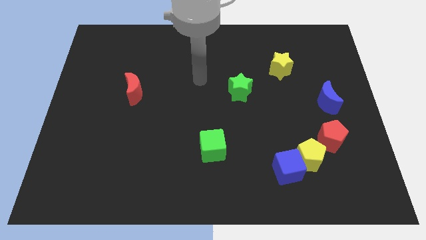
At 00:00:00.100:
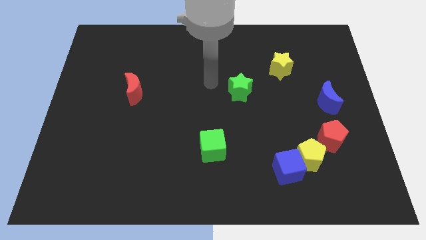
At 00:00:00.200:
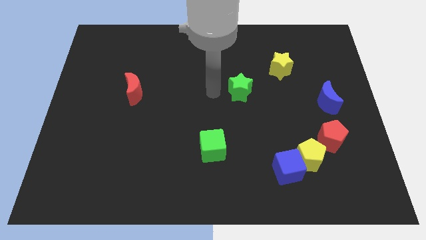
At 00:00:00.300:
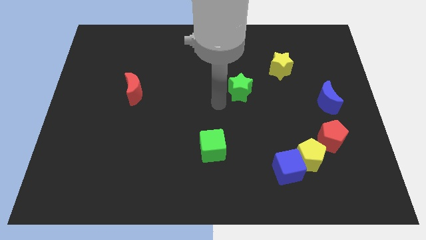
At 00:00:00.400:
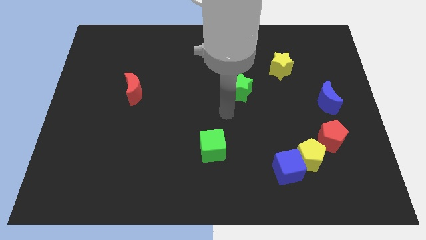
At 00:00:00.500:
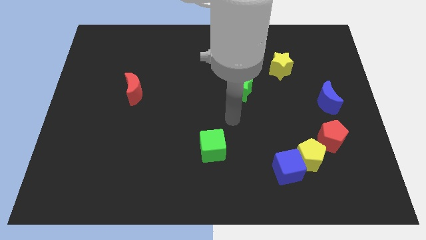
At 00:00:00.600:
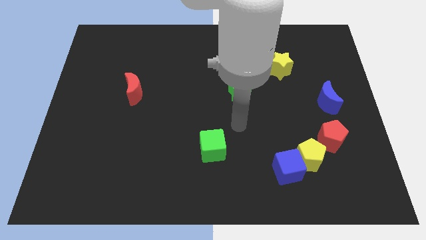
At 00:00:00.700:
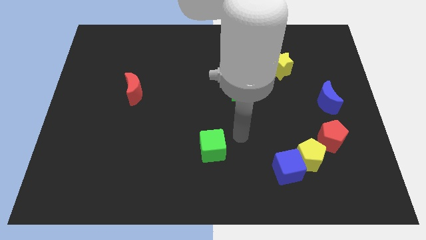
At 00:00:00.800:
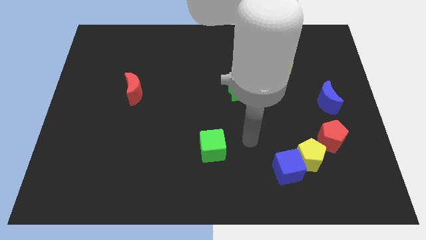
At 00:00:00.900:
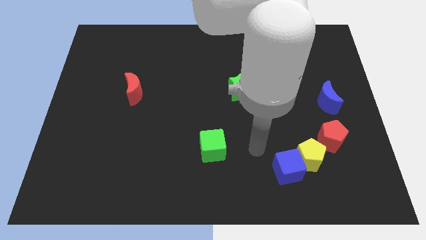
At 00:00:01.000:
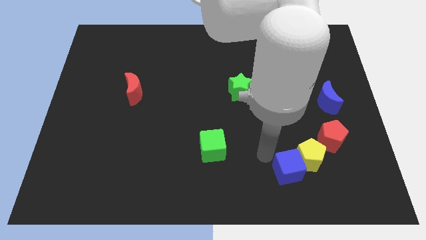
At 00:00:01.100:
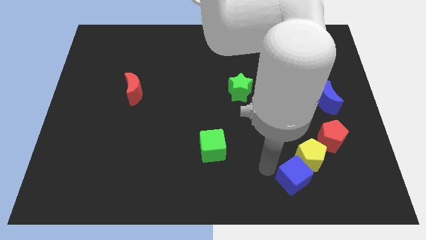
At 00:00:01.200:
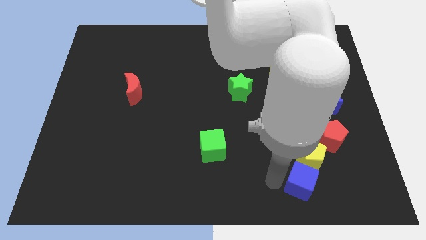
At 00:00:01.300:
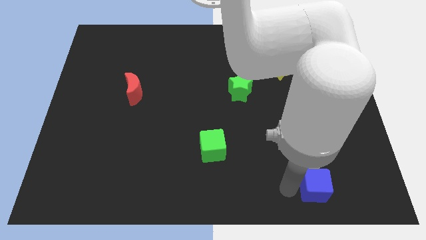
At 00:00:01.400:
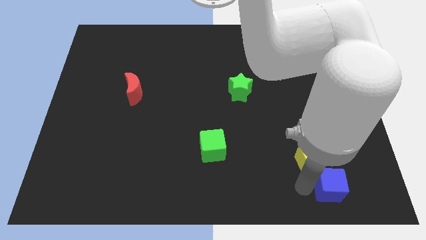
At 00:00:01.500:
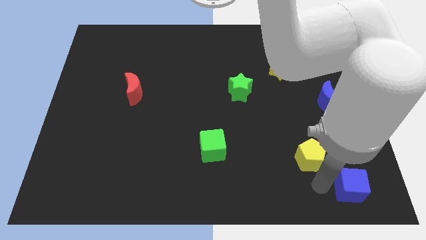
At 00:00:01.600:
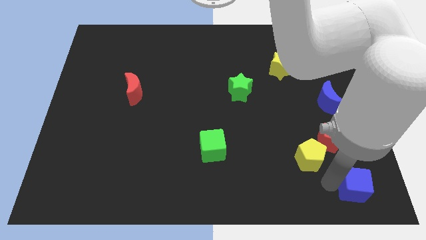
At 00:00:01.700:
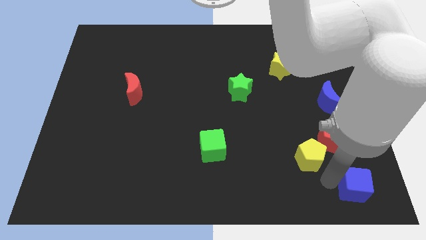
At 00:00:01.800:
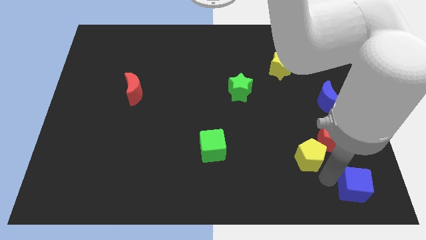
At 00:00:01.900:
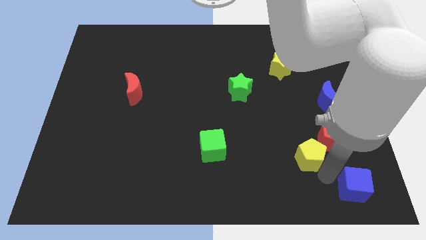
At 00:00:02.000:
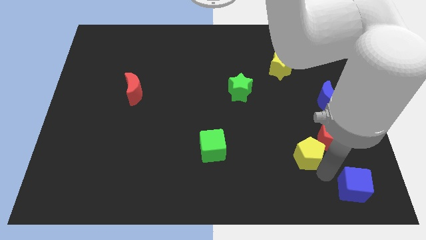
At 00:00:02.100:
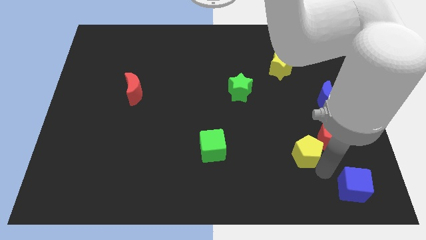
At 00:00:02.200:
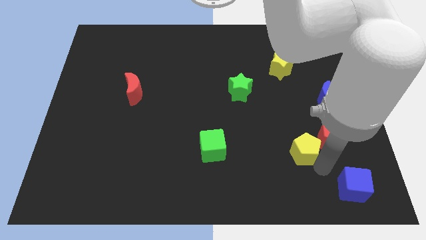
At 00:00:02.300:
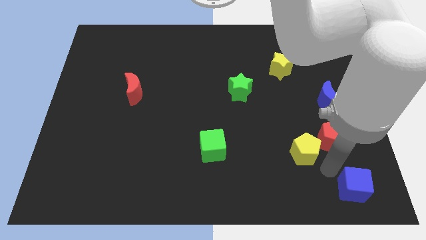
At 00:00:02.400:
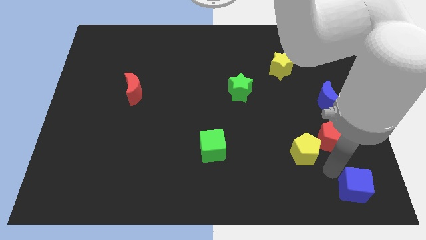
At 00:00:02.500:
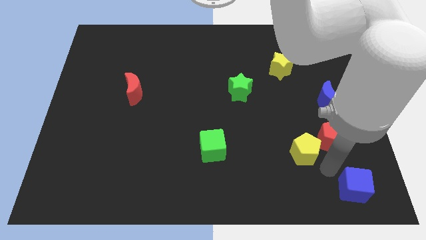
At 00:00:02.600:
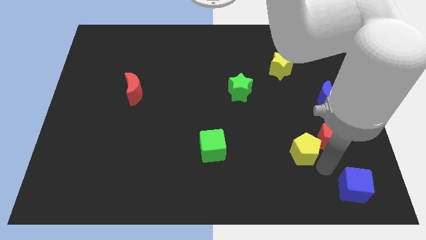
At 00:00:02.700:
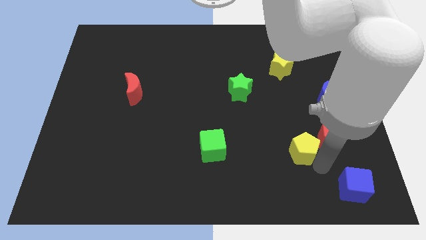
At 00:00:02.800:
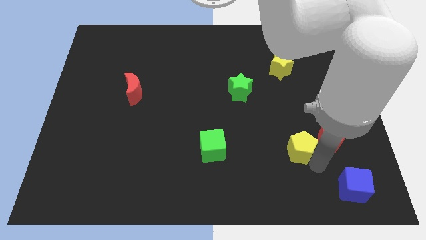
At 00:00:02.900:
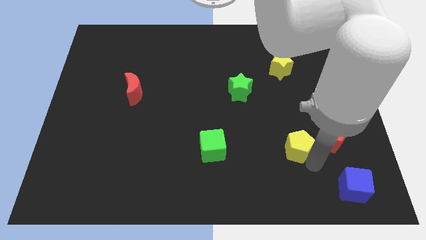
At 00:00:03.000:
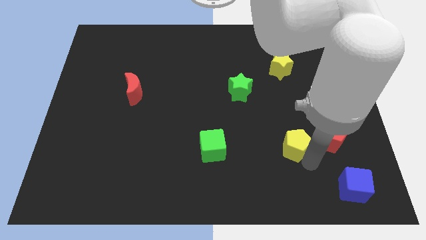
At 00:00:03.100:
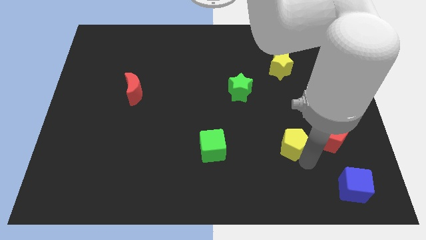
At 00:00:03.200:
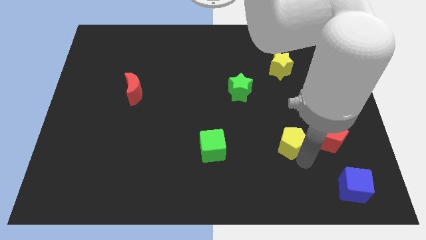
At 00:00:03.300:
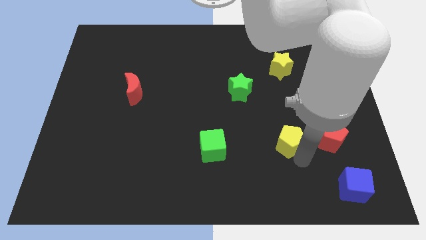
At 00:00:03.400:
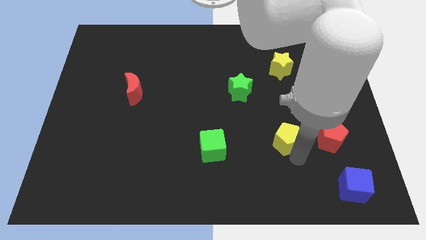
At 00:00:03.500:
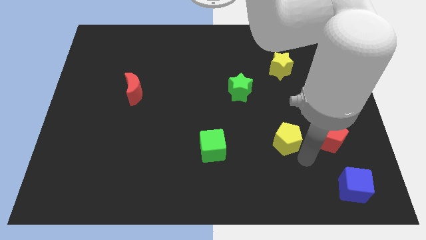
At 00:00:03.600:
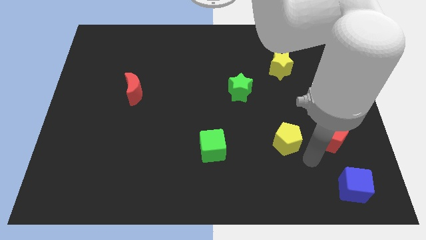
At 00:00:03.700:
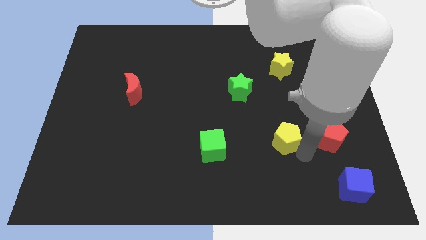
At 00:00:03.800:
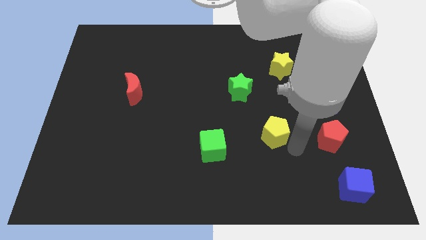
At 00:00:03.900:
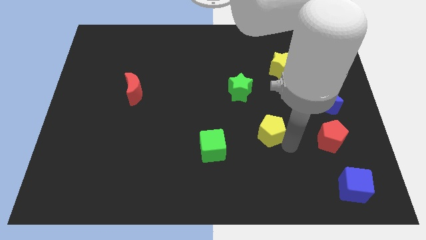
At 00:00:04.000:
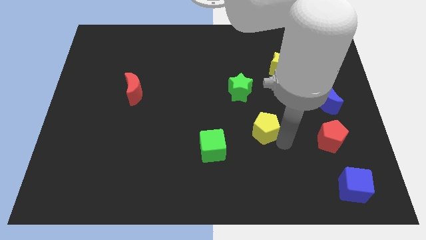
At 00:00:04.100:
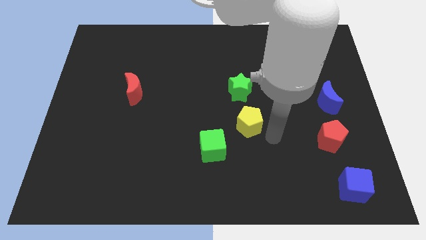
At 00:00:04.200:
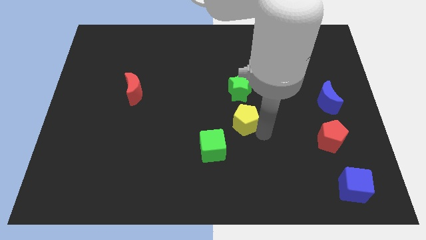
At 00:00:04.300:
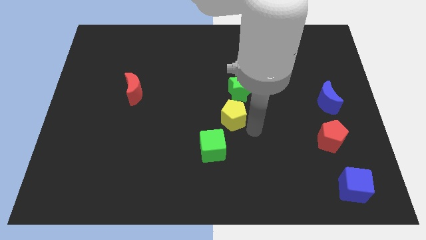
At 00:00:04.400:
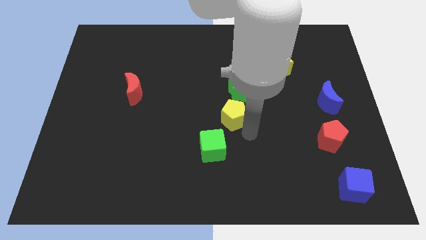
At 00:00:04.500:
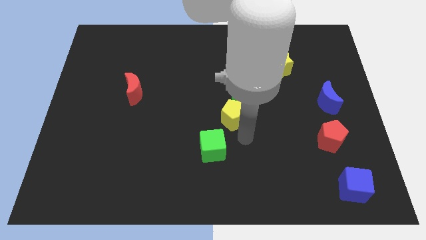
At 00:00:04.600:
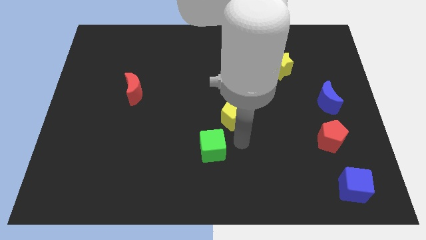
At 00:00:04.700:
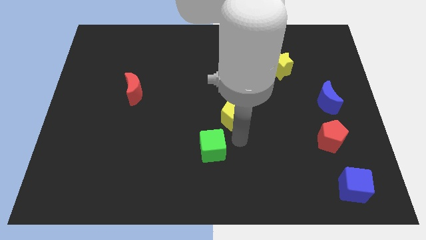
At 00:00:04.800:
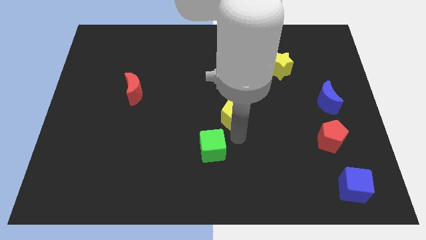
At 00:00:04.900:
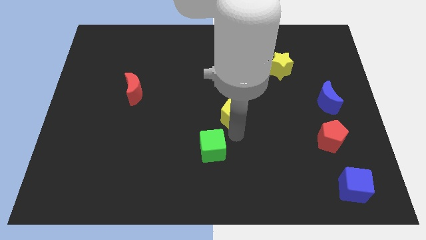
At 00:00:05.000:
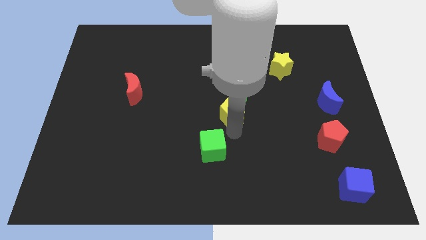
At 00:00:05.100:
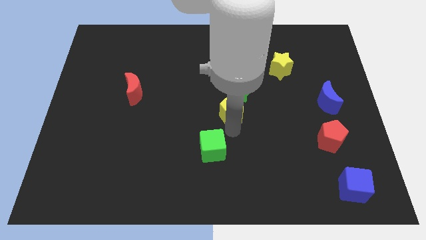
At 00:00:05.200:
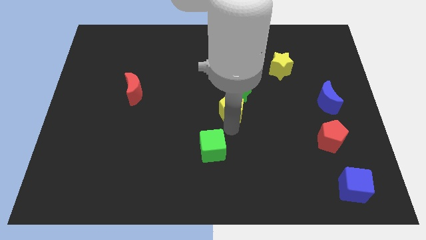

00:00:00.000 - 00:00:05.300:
move the yellow pentagon upwards and then to the left

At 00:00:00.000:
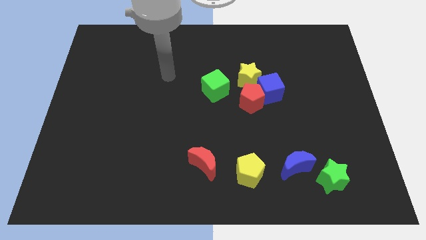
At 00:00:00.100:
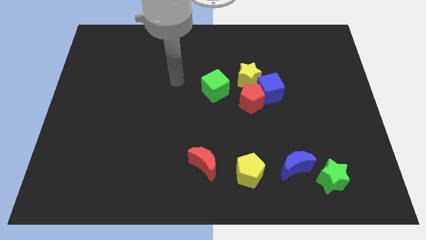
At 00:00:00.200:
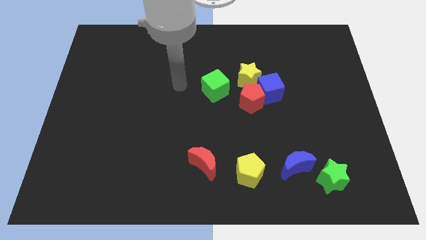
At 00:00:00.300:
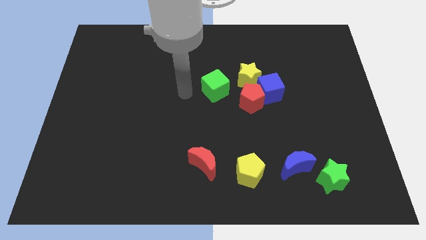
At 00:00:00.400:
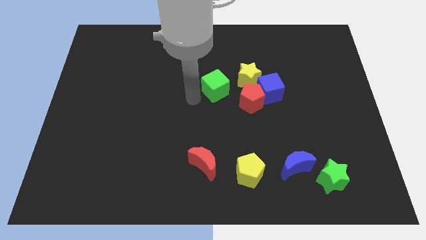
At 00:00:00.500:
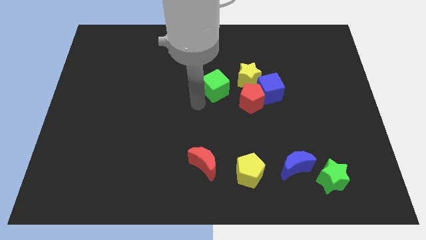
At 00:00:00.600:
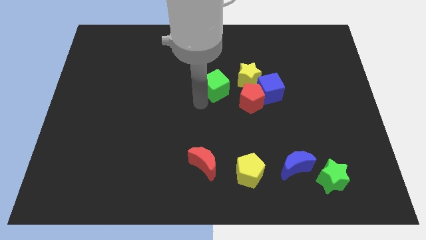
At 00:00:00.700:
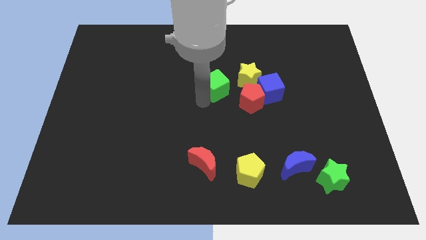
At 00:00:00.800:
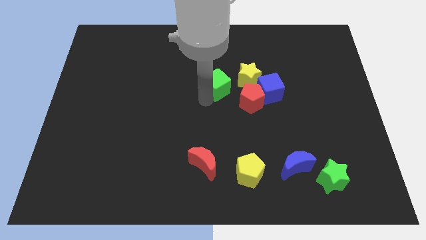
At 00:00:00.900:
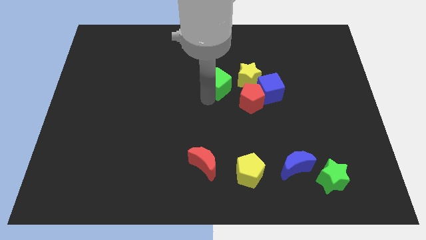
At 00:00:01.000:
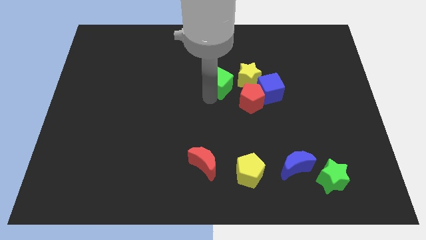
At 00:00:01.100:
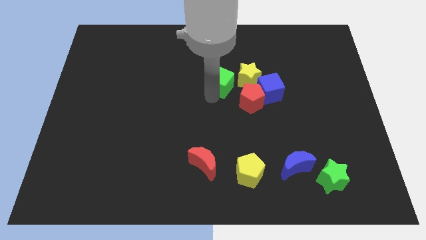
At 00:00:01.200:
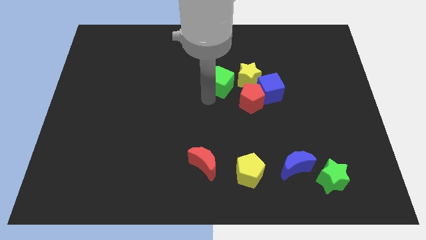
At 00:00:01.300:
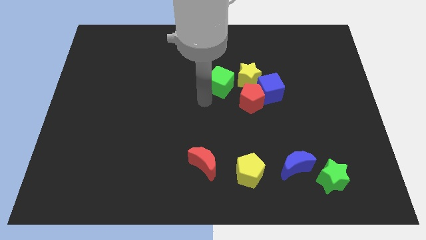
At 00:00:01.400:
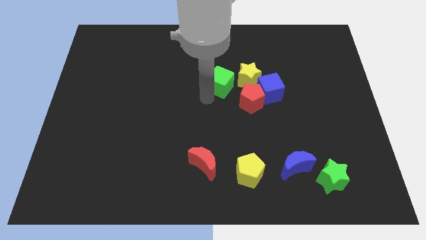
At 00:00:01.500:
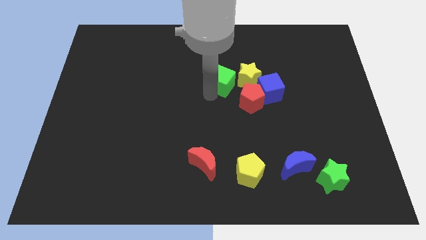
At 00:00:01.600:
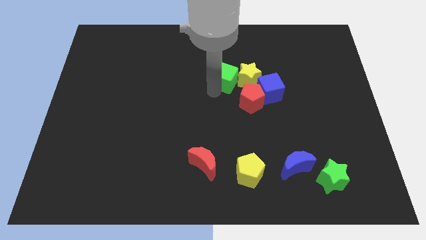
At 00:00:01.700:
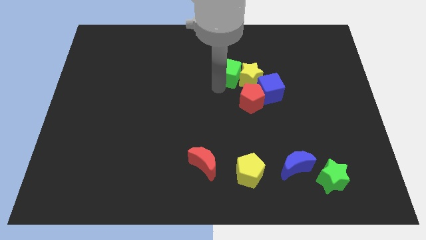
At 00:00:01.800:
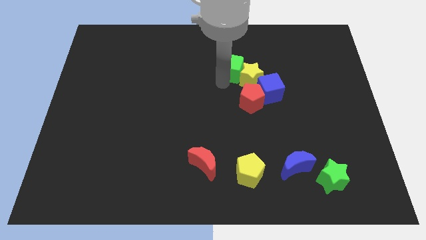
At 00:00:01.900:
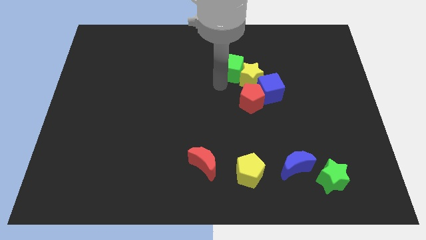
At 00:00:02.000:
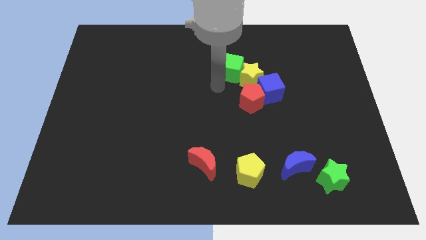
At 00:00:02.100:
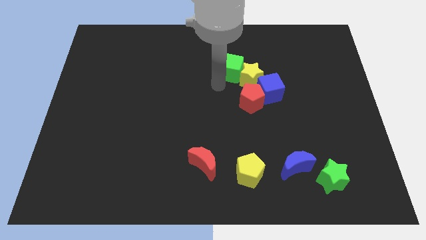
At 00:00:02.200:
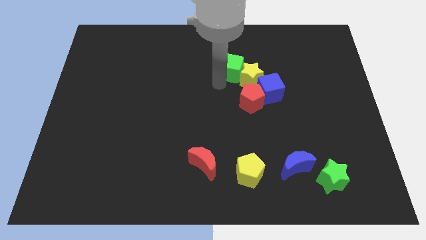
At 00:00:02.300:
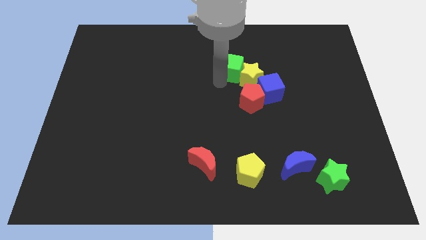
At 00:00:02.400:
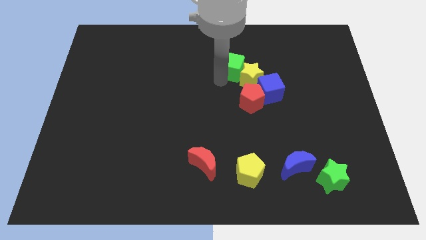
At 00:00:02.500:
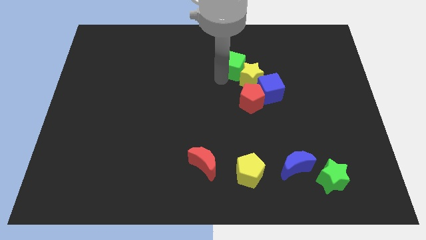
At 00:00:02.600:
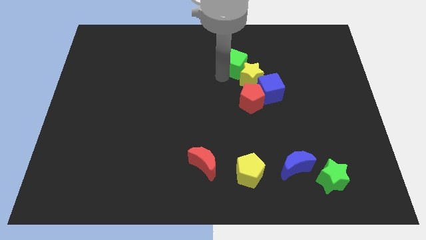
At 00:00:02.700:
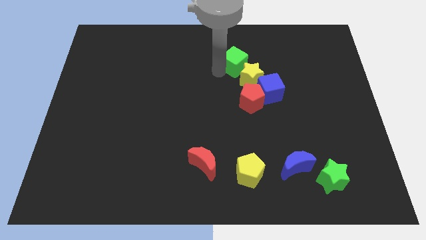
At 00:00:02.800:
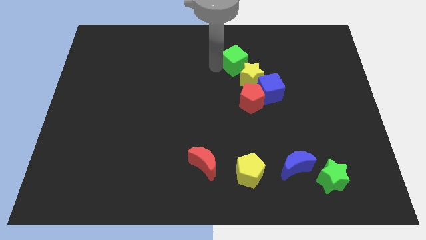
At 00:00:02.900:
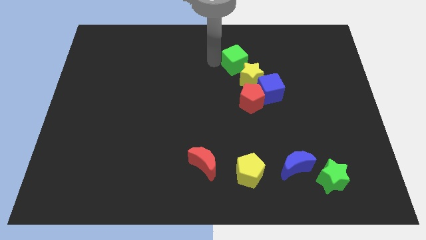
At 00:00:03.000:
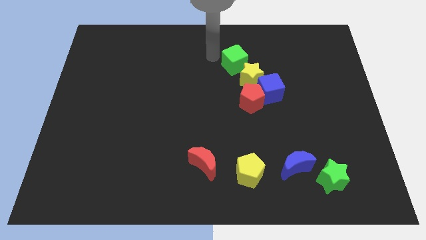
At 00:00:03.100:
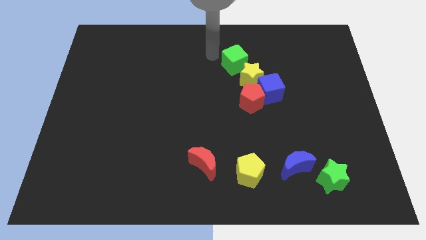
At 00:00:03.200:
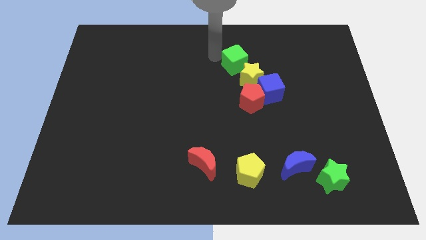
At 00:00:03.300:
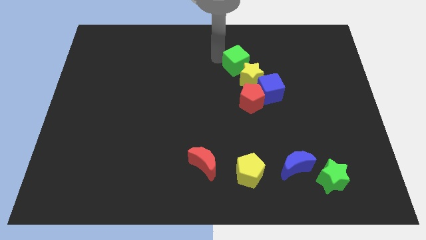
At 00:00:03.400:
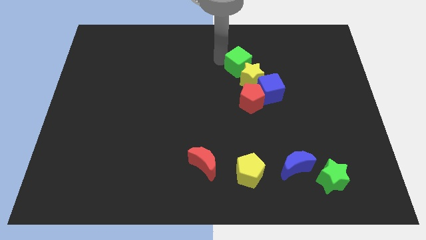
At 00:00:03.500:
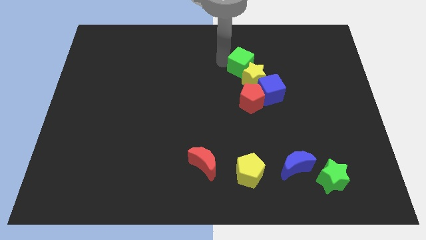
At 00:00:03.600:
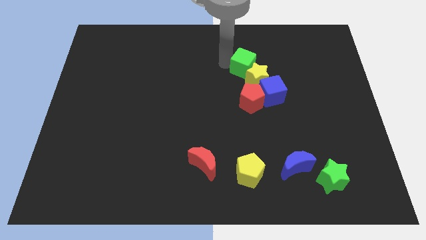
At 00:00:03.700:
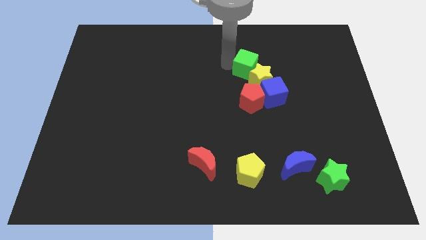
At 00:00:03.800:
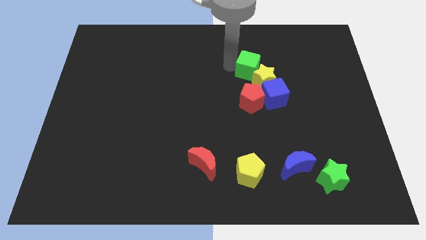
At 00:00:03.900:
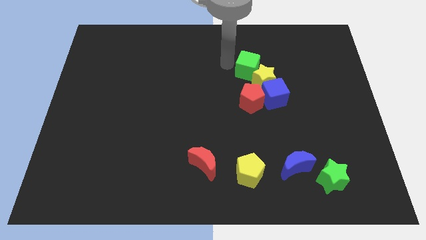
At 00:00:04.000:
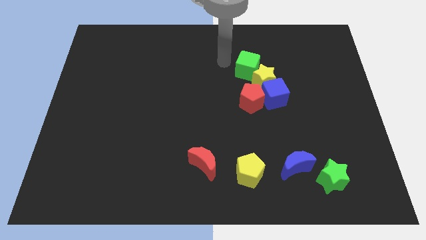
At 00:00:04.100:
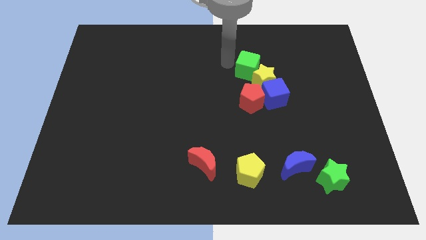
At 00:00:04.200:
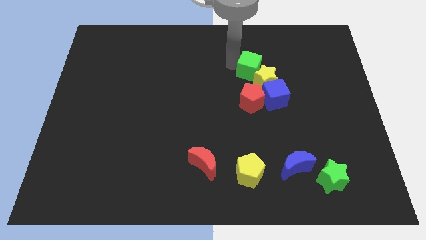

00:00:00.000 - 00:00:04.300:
slightly push the green cube right
